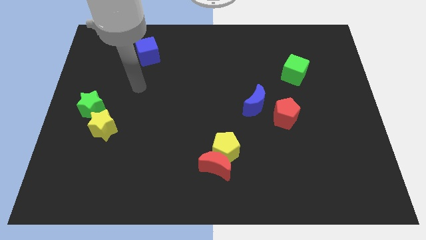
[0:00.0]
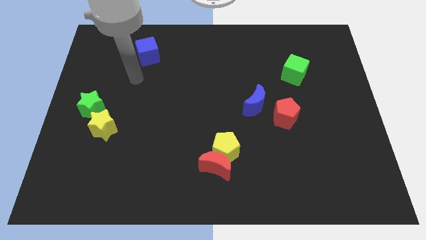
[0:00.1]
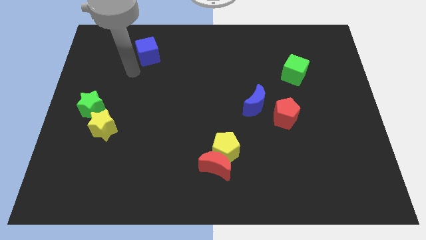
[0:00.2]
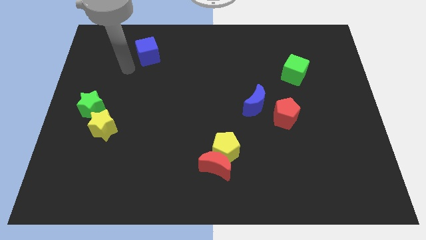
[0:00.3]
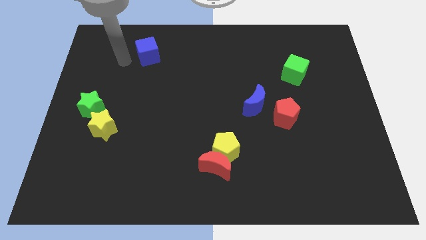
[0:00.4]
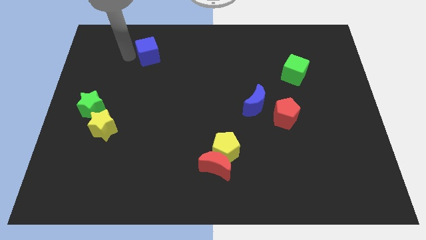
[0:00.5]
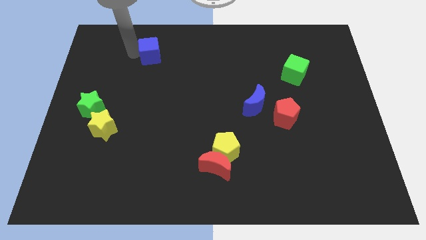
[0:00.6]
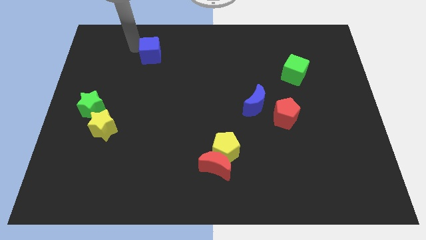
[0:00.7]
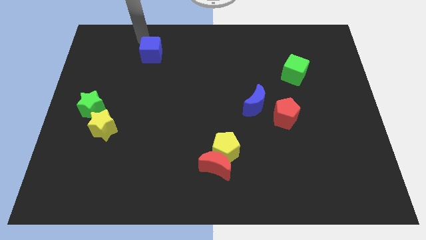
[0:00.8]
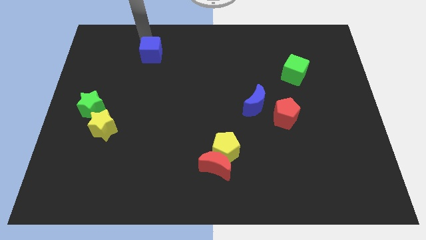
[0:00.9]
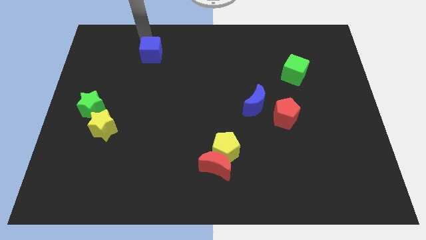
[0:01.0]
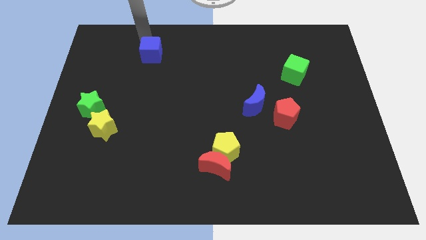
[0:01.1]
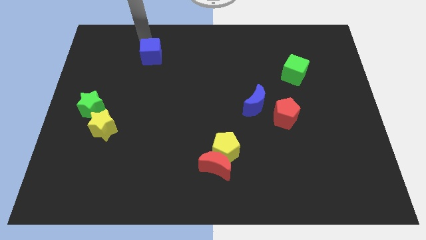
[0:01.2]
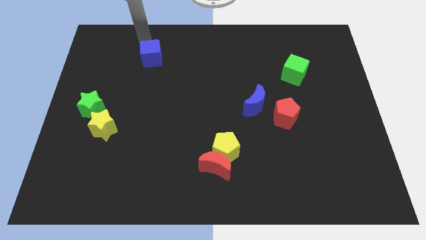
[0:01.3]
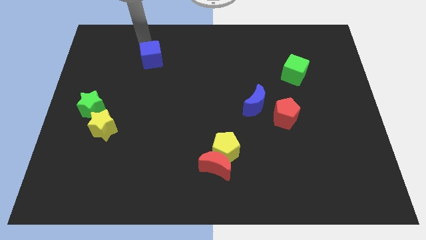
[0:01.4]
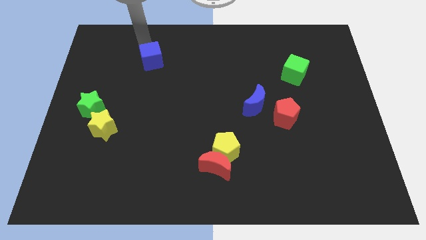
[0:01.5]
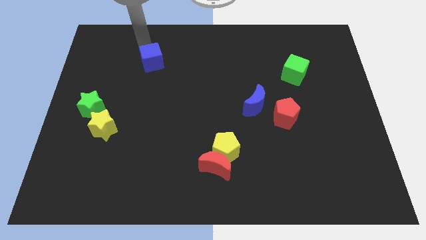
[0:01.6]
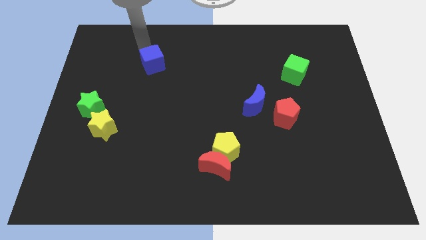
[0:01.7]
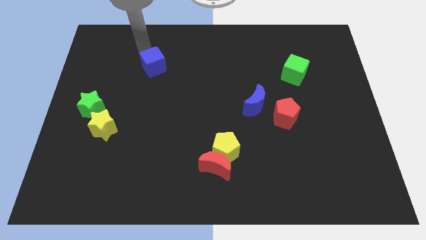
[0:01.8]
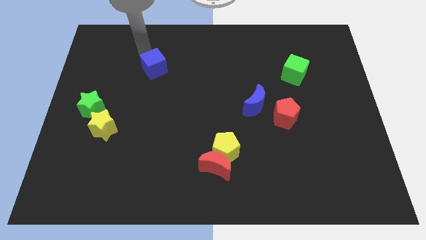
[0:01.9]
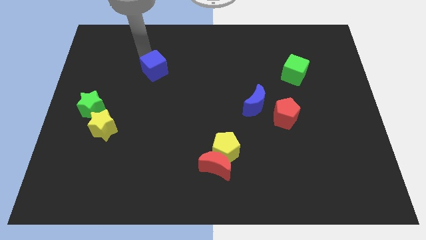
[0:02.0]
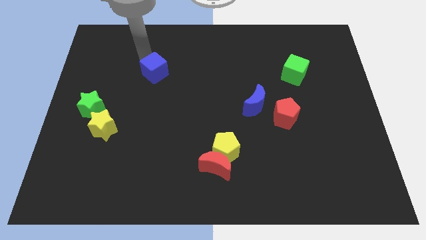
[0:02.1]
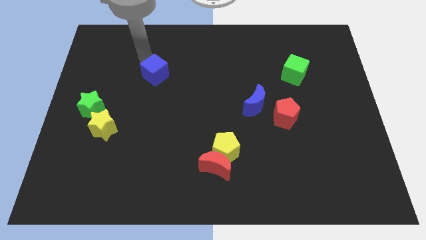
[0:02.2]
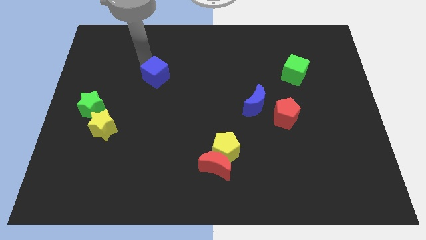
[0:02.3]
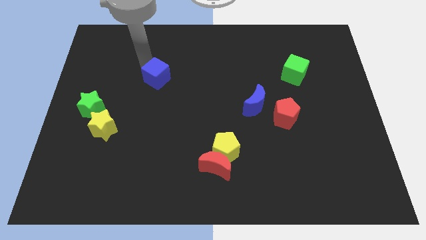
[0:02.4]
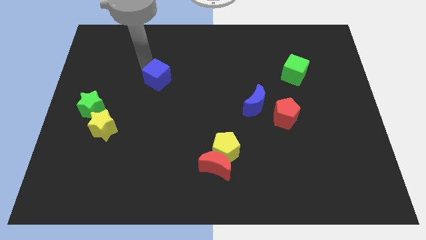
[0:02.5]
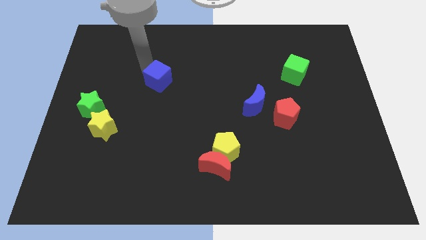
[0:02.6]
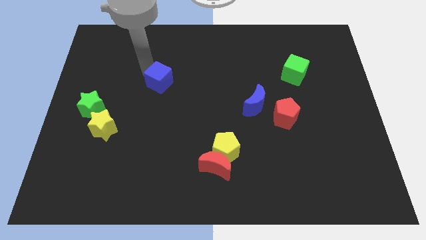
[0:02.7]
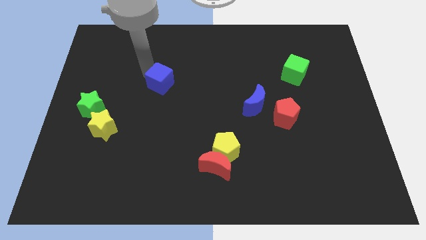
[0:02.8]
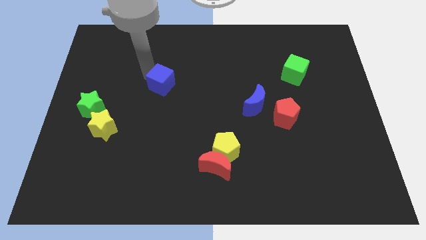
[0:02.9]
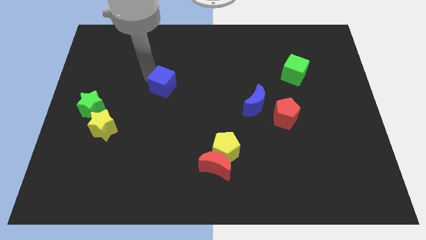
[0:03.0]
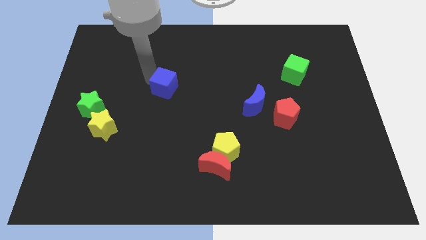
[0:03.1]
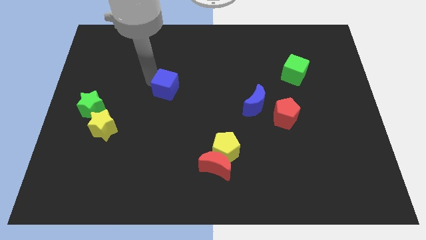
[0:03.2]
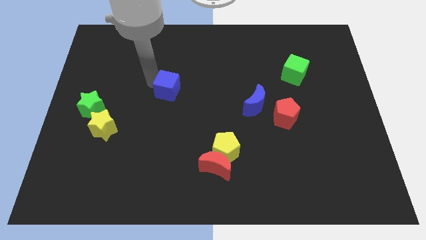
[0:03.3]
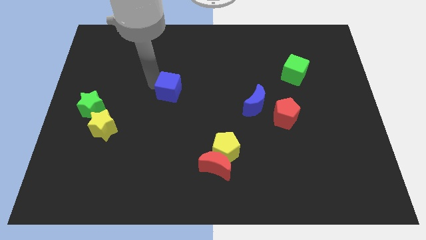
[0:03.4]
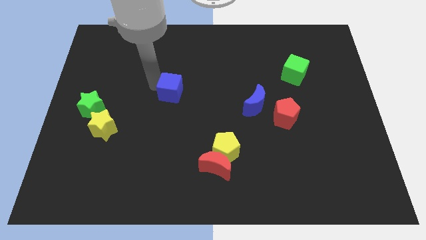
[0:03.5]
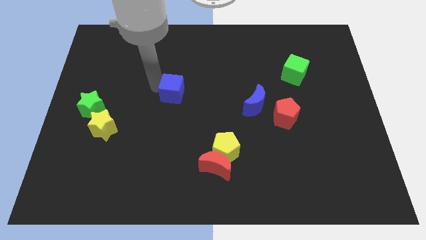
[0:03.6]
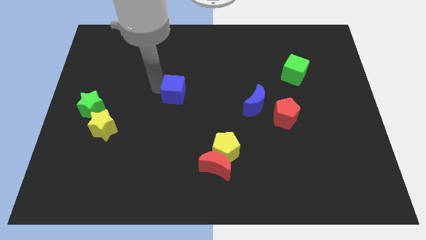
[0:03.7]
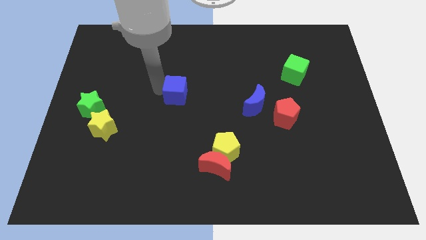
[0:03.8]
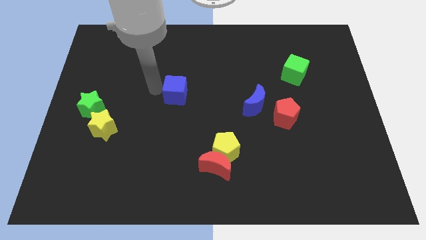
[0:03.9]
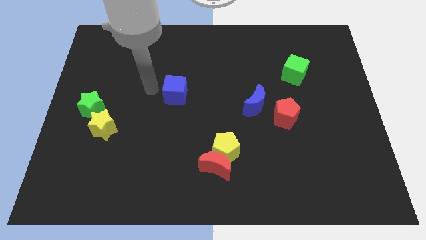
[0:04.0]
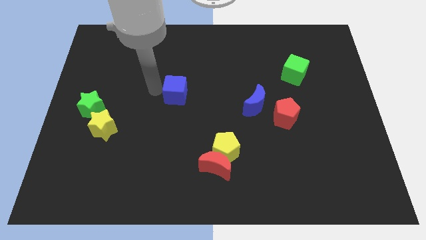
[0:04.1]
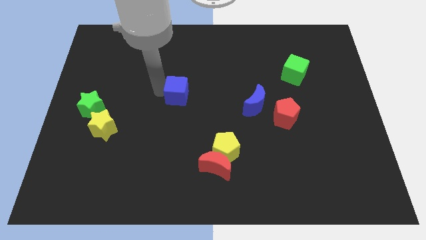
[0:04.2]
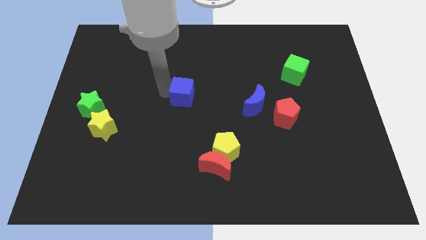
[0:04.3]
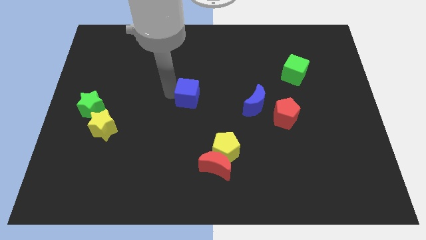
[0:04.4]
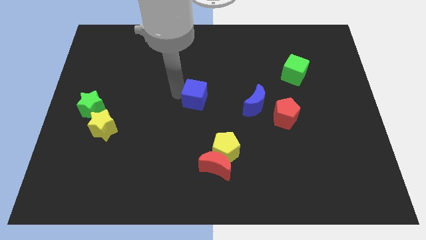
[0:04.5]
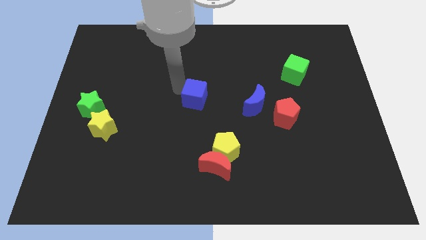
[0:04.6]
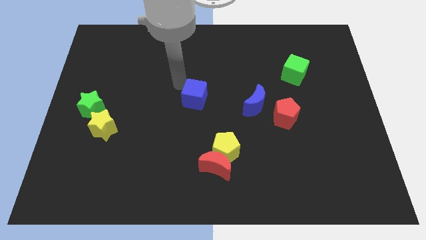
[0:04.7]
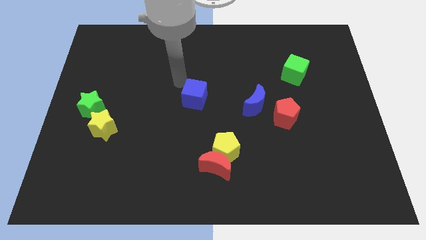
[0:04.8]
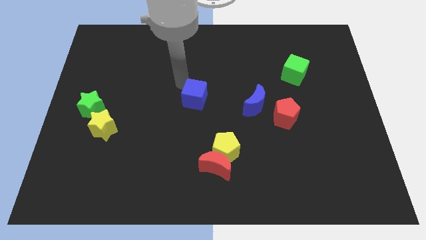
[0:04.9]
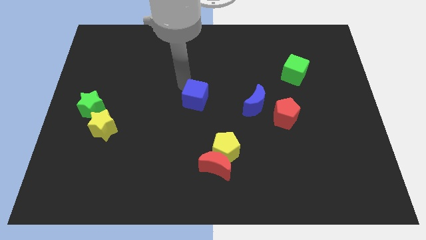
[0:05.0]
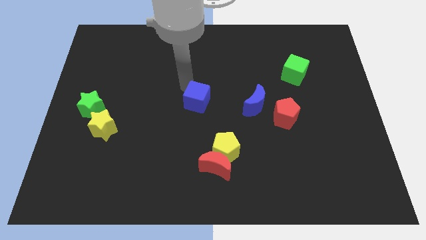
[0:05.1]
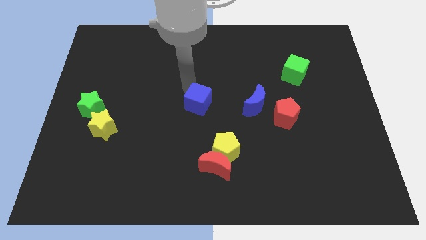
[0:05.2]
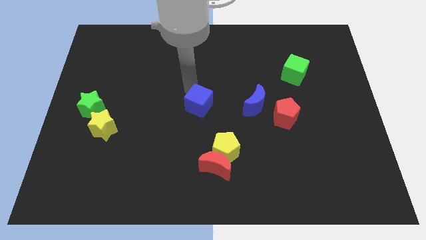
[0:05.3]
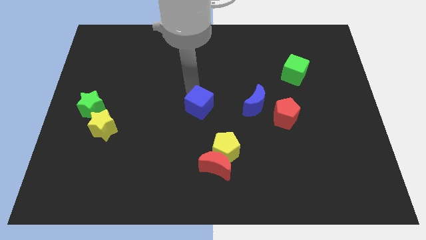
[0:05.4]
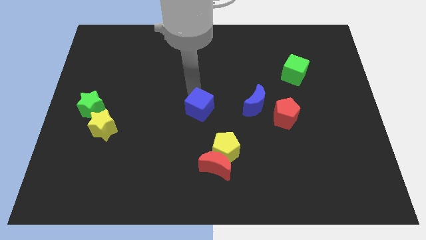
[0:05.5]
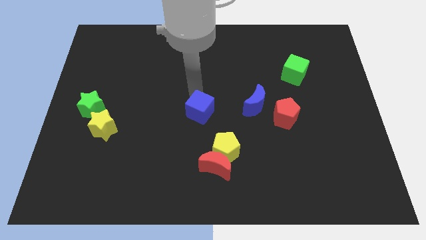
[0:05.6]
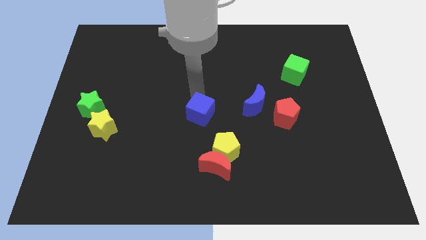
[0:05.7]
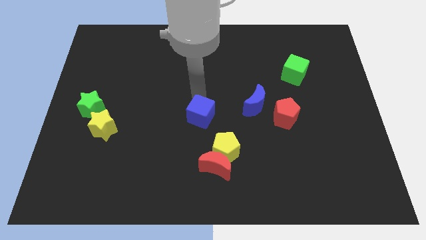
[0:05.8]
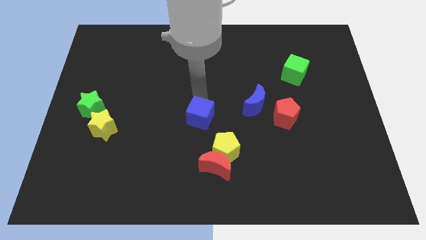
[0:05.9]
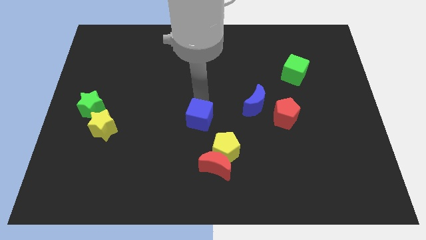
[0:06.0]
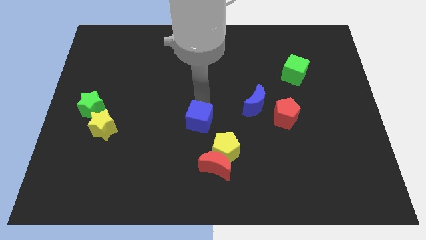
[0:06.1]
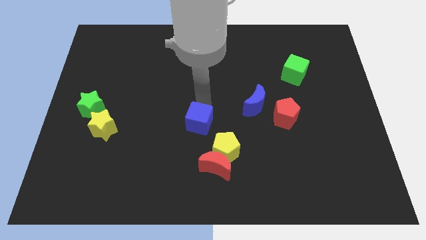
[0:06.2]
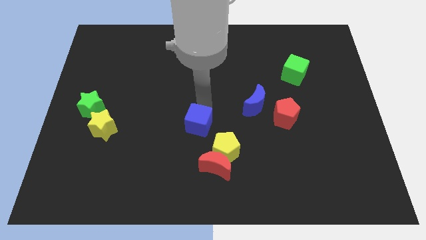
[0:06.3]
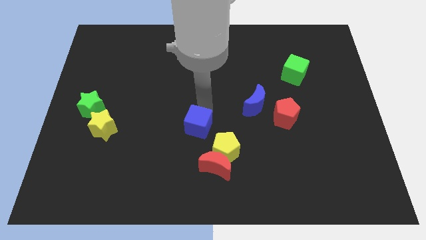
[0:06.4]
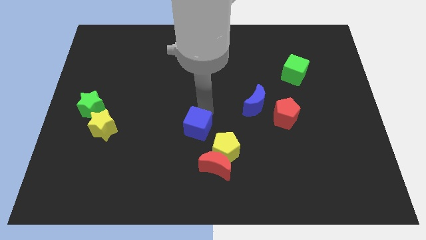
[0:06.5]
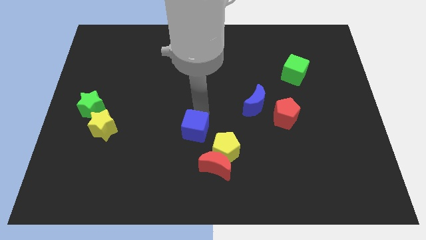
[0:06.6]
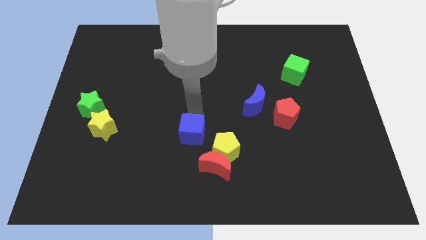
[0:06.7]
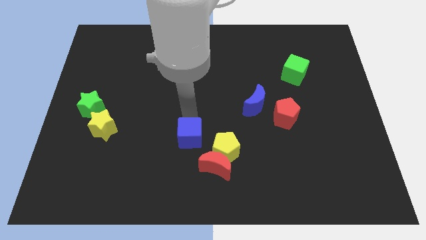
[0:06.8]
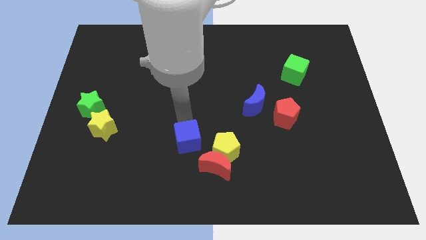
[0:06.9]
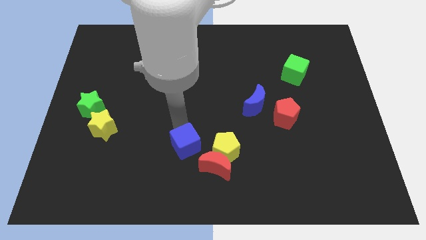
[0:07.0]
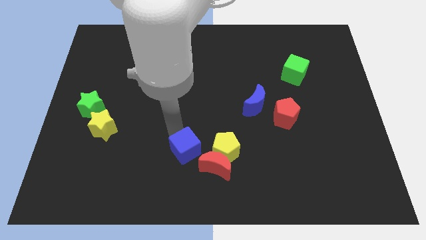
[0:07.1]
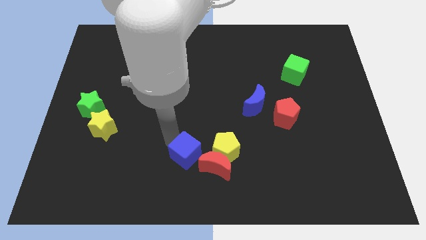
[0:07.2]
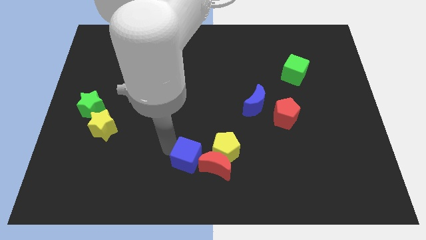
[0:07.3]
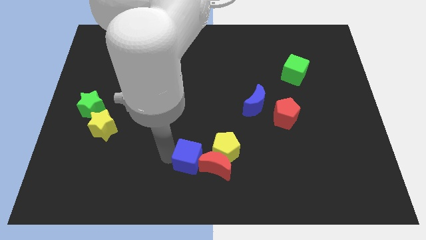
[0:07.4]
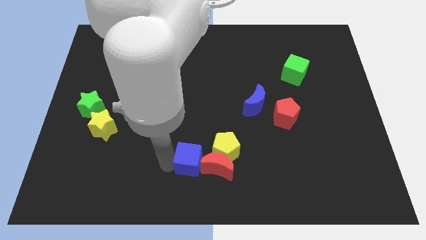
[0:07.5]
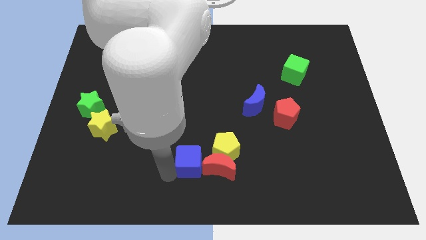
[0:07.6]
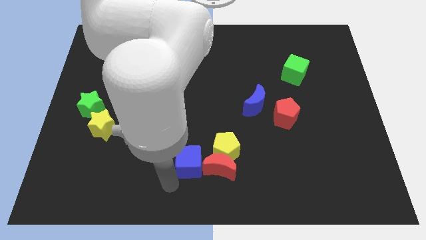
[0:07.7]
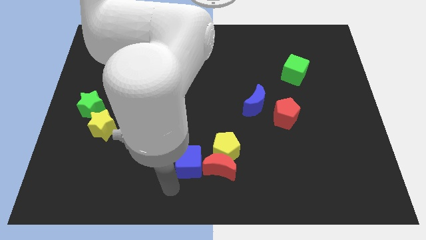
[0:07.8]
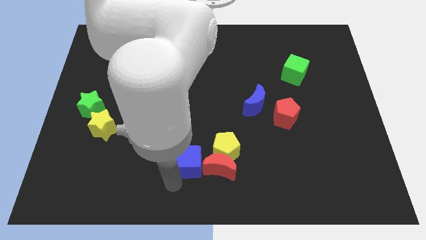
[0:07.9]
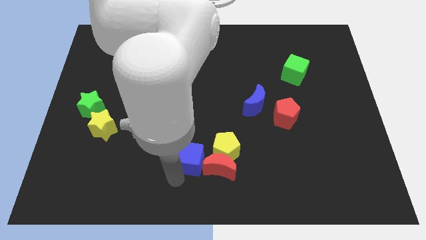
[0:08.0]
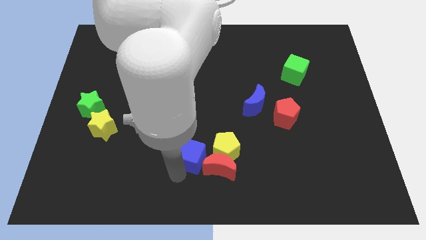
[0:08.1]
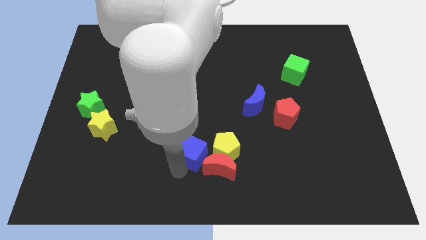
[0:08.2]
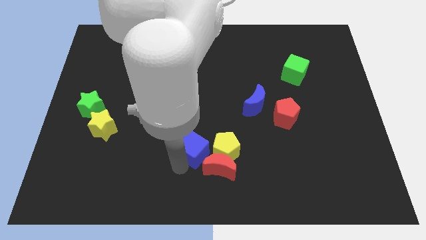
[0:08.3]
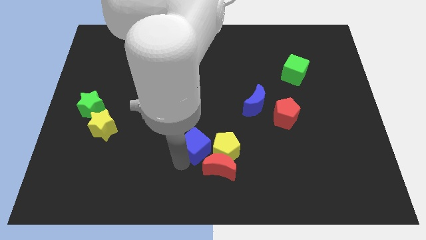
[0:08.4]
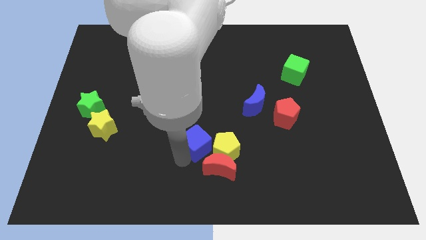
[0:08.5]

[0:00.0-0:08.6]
push the blue cube towards the yellow pentagon
